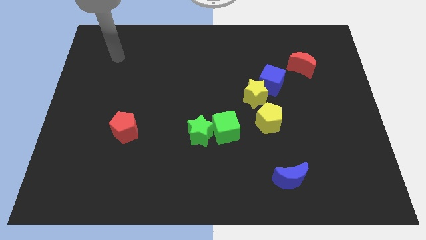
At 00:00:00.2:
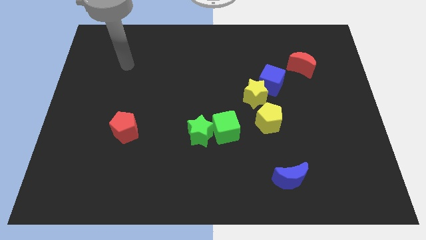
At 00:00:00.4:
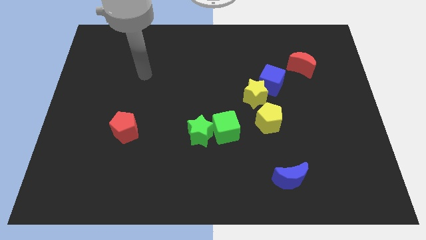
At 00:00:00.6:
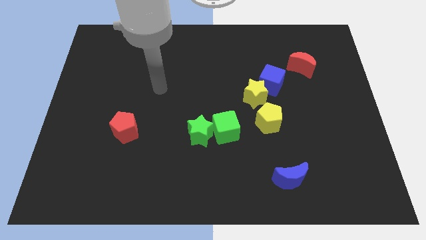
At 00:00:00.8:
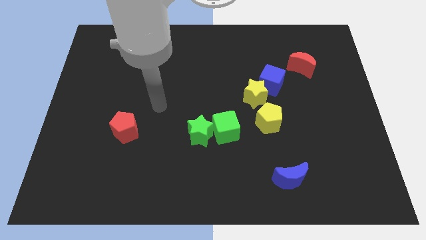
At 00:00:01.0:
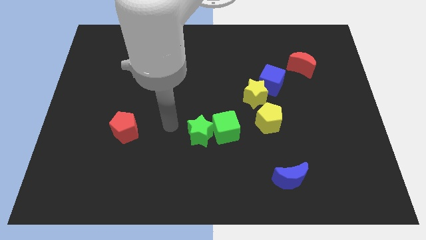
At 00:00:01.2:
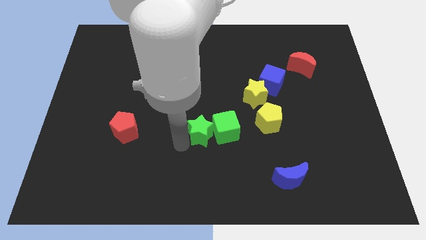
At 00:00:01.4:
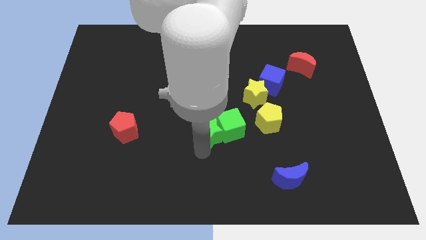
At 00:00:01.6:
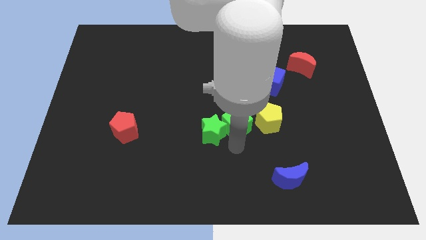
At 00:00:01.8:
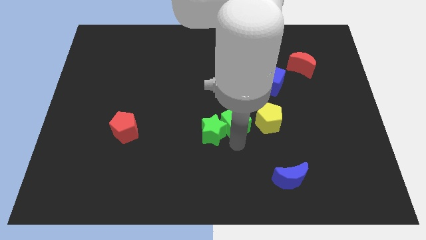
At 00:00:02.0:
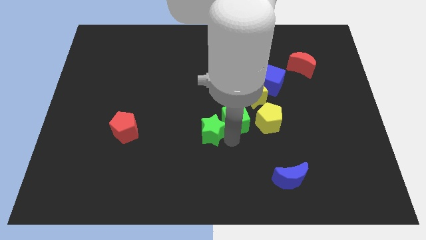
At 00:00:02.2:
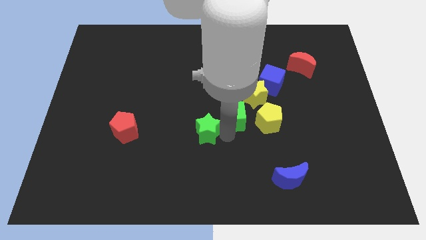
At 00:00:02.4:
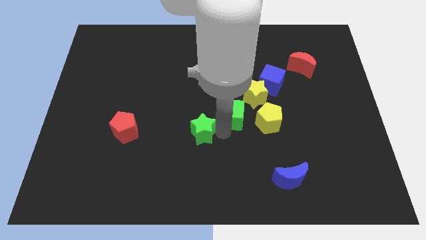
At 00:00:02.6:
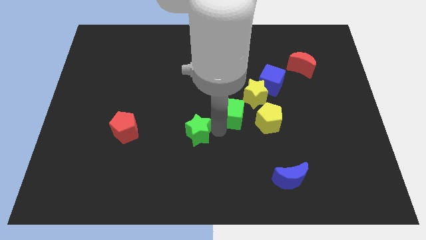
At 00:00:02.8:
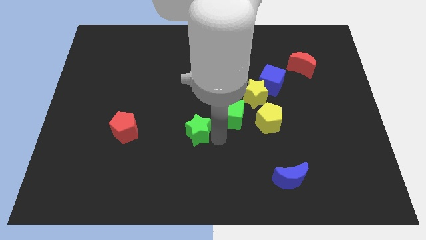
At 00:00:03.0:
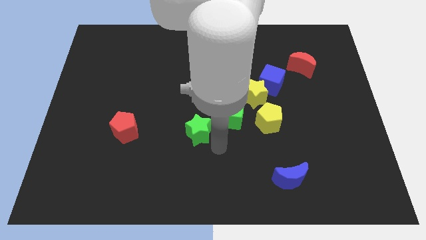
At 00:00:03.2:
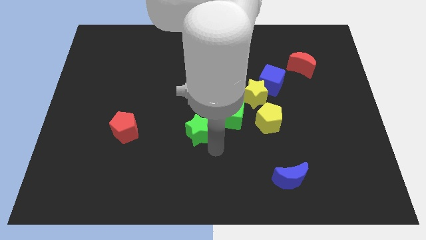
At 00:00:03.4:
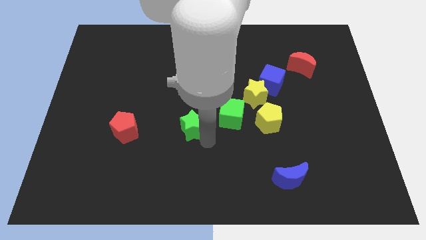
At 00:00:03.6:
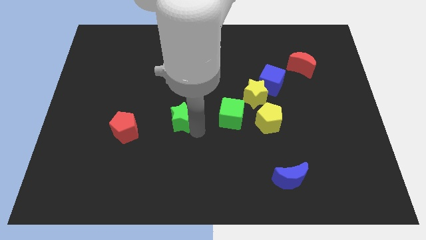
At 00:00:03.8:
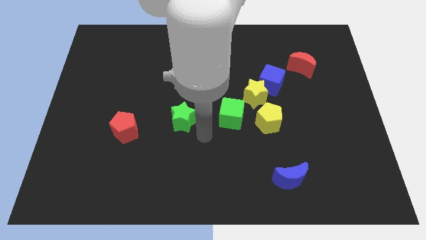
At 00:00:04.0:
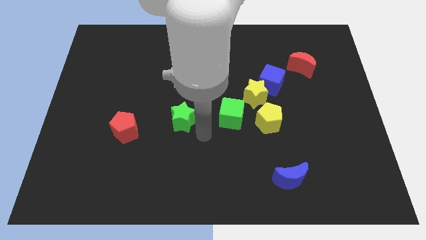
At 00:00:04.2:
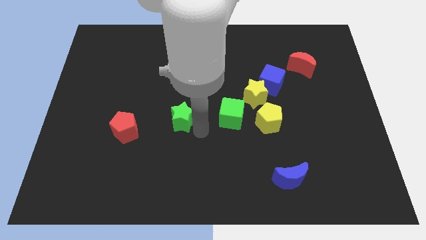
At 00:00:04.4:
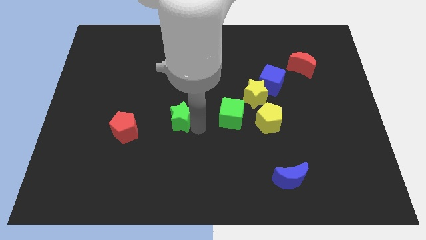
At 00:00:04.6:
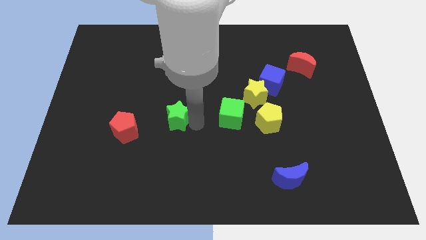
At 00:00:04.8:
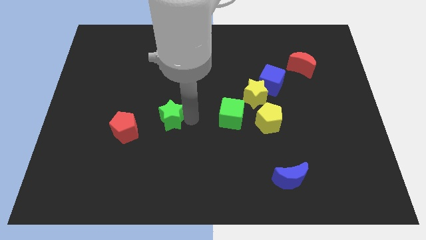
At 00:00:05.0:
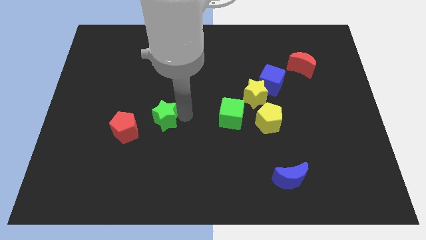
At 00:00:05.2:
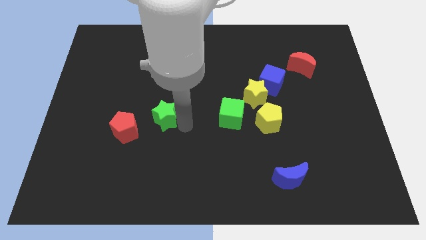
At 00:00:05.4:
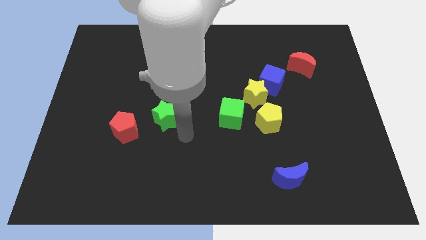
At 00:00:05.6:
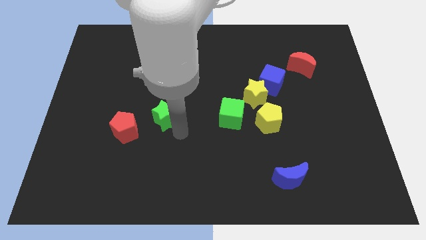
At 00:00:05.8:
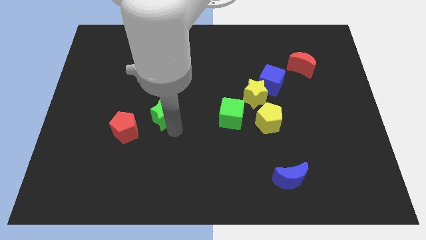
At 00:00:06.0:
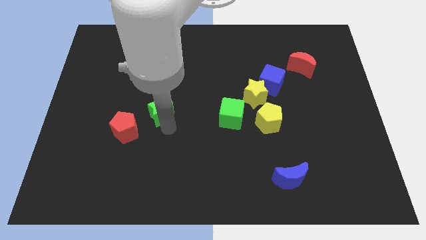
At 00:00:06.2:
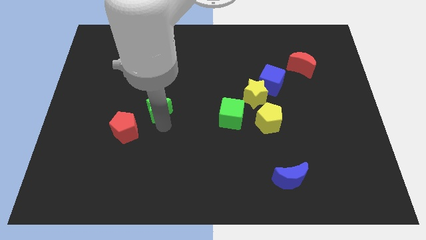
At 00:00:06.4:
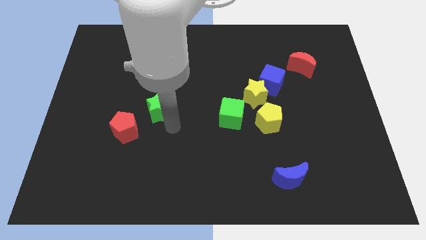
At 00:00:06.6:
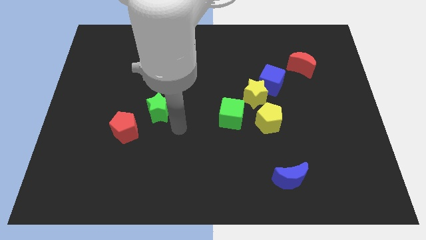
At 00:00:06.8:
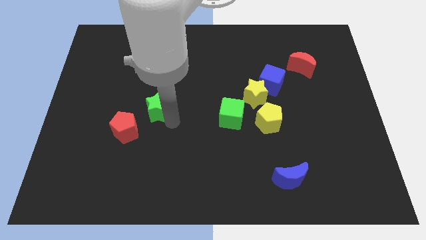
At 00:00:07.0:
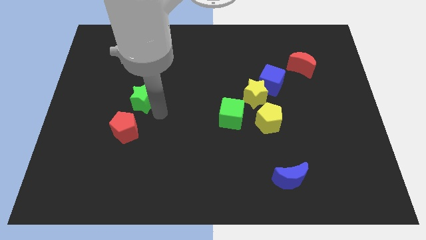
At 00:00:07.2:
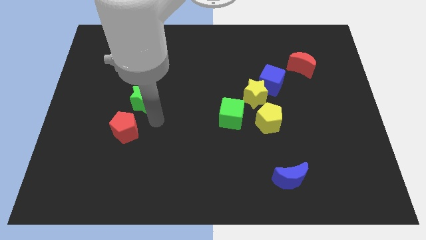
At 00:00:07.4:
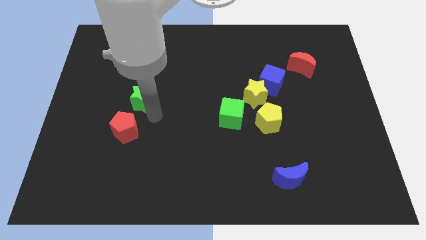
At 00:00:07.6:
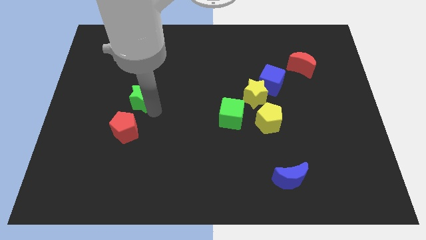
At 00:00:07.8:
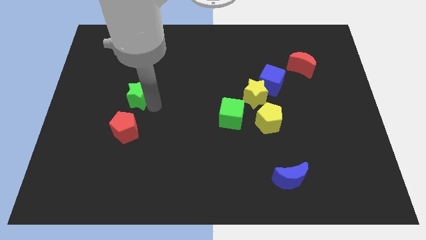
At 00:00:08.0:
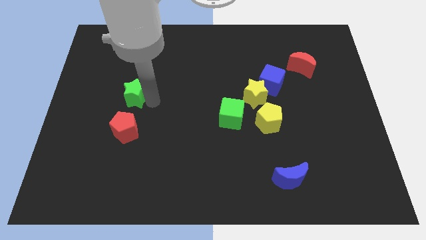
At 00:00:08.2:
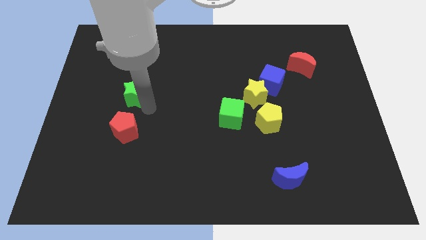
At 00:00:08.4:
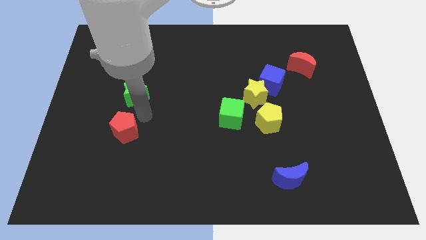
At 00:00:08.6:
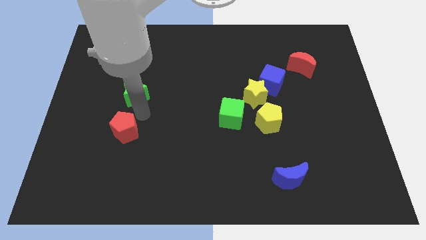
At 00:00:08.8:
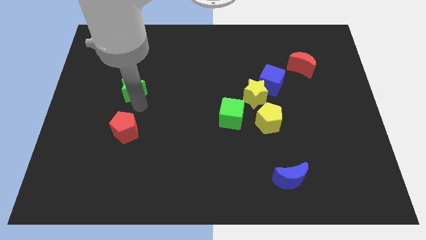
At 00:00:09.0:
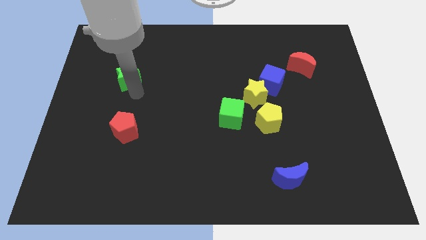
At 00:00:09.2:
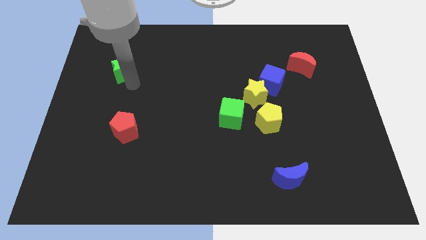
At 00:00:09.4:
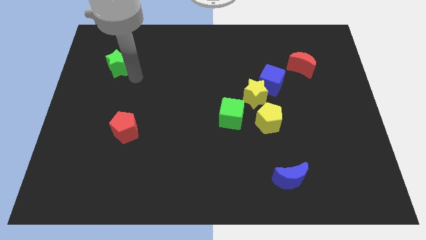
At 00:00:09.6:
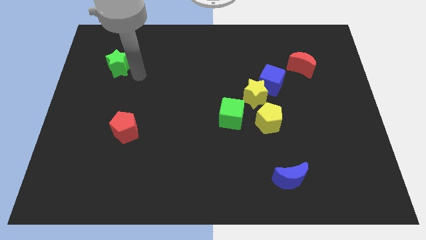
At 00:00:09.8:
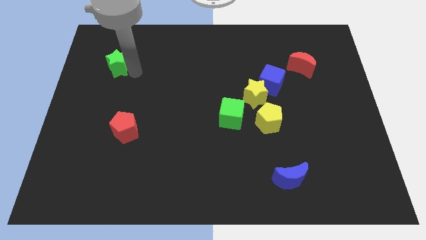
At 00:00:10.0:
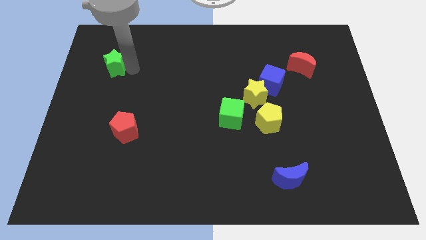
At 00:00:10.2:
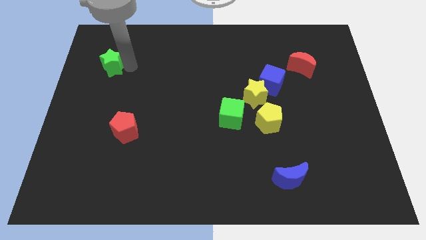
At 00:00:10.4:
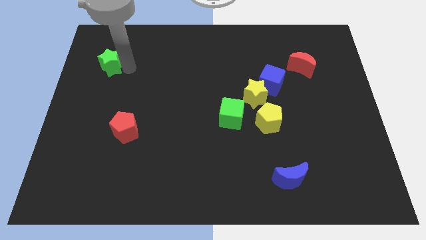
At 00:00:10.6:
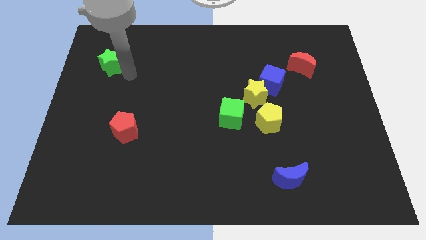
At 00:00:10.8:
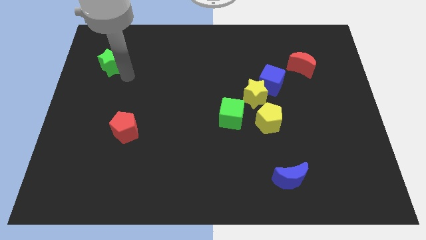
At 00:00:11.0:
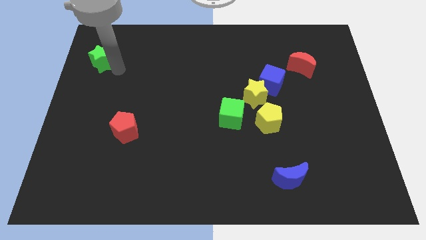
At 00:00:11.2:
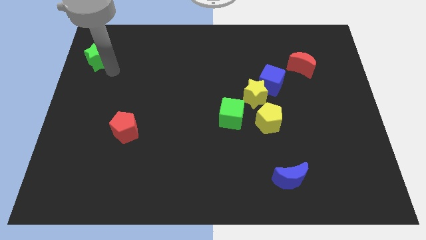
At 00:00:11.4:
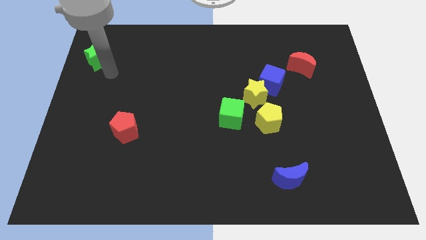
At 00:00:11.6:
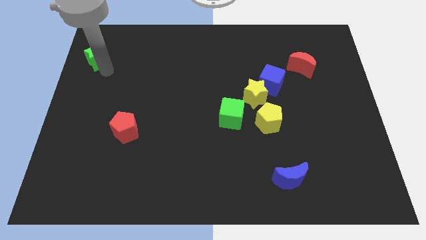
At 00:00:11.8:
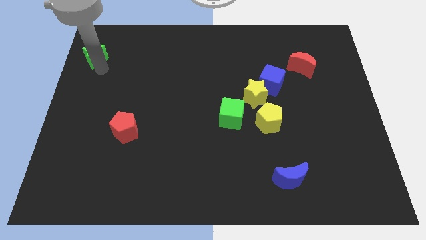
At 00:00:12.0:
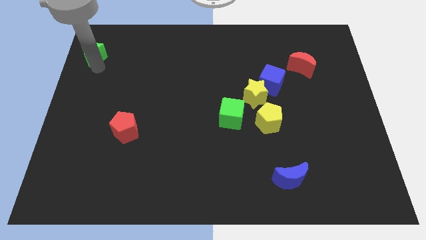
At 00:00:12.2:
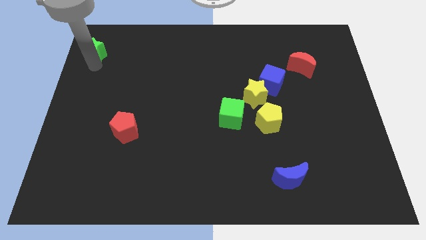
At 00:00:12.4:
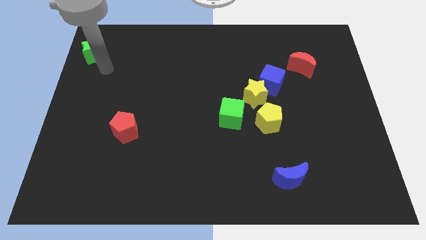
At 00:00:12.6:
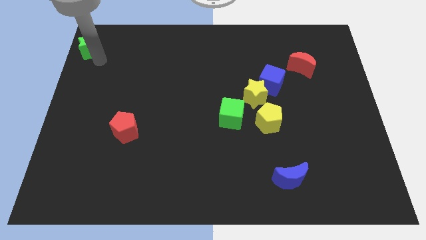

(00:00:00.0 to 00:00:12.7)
move the green star to the top left
